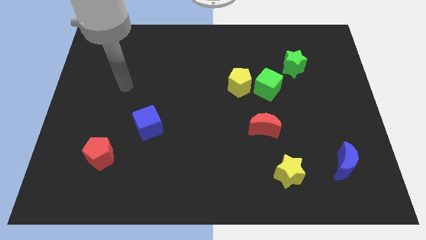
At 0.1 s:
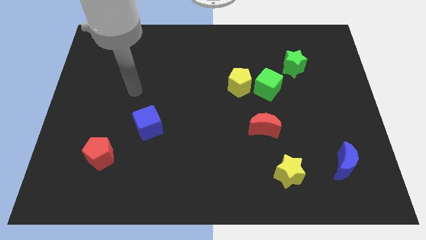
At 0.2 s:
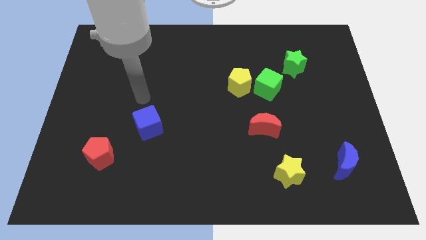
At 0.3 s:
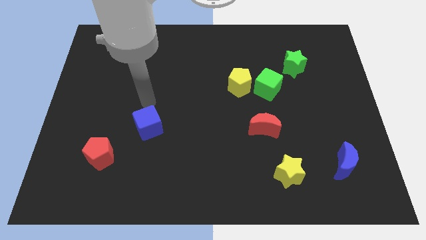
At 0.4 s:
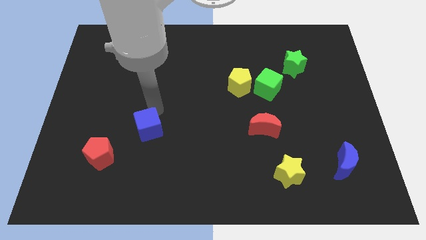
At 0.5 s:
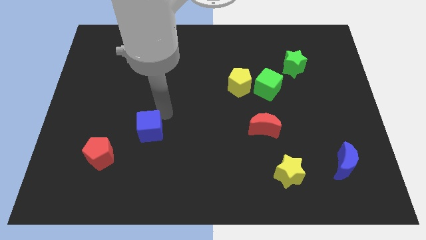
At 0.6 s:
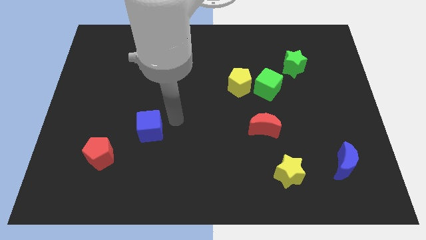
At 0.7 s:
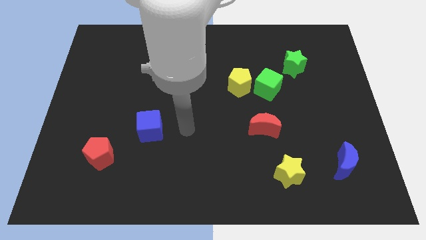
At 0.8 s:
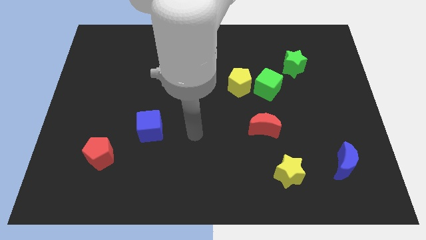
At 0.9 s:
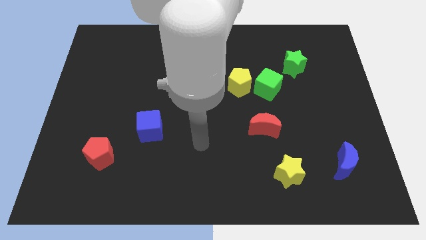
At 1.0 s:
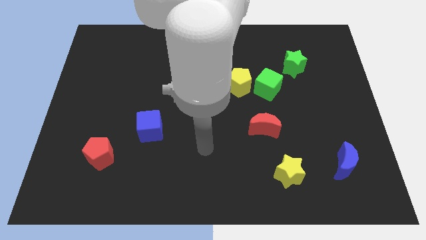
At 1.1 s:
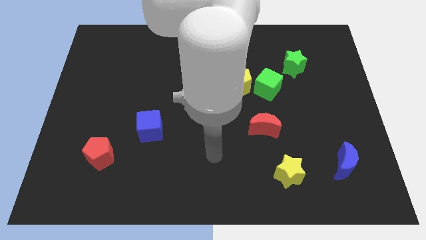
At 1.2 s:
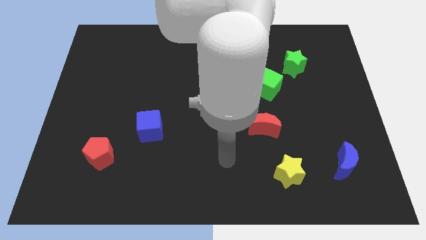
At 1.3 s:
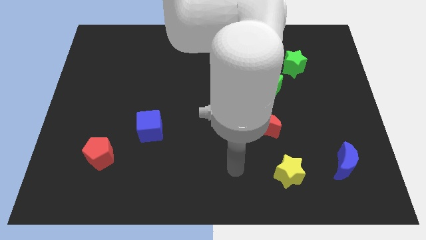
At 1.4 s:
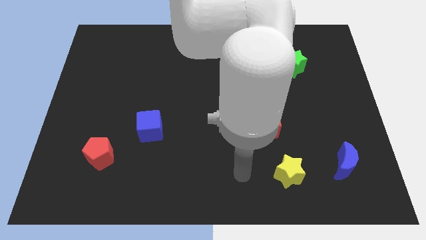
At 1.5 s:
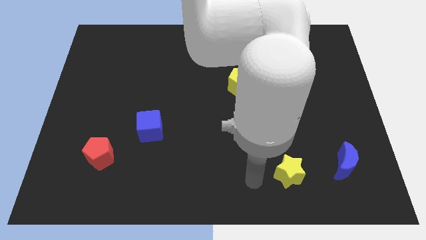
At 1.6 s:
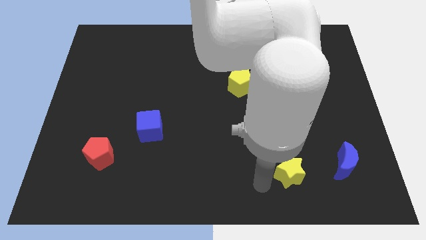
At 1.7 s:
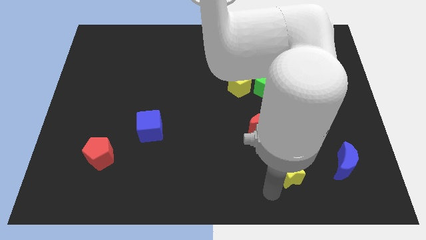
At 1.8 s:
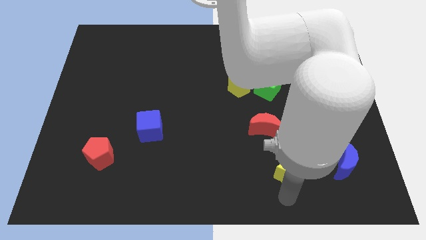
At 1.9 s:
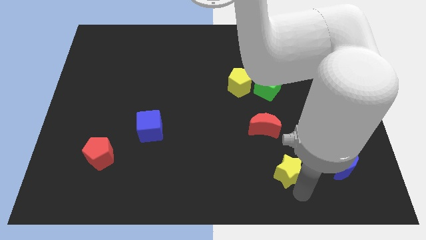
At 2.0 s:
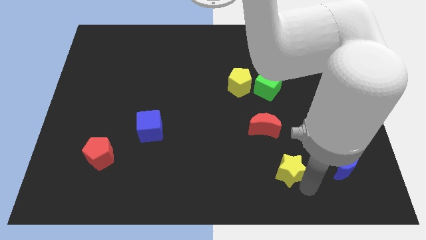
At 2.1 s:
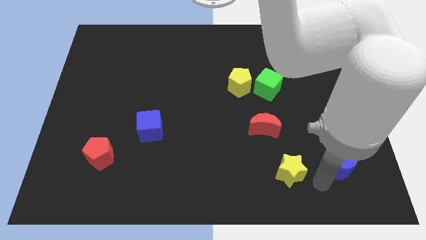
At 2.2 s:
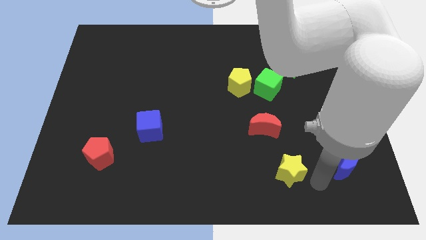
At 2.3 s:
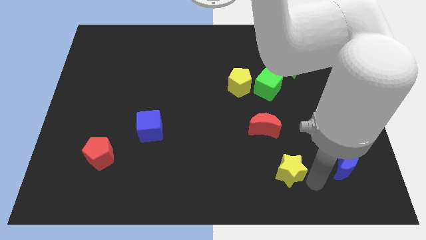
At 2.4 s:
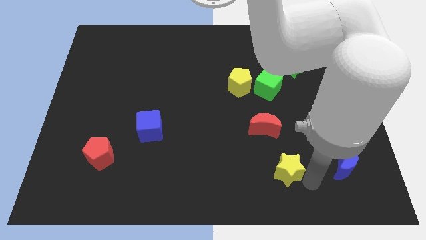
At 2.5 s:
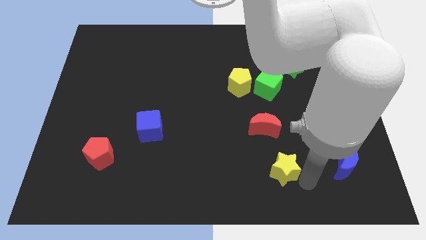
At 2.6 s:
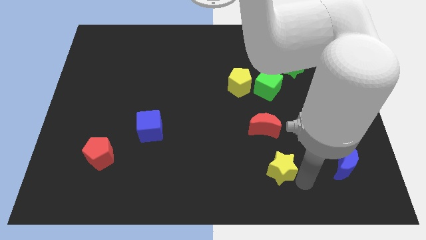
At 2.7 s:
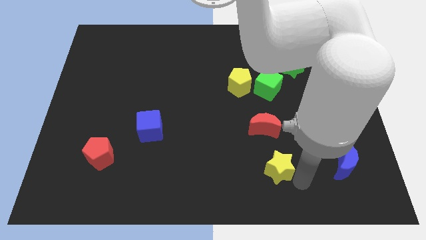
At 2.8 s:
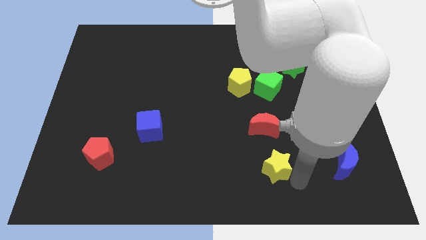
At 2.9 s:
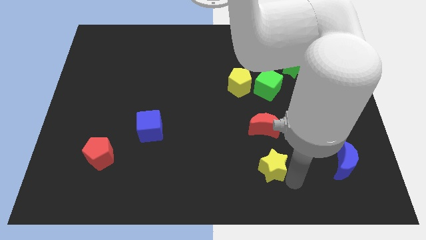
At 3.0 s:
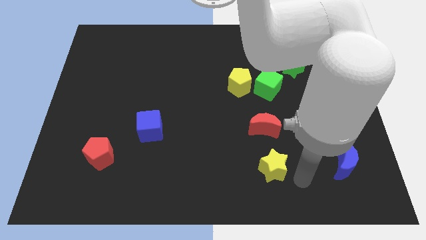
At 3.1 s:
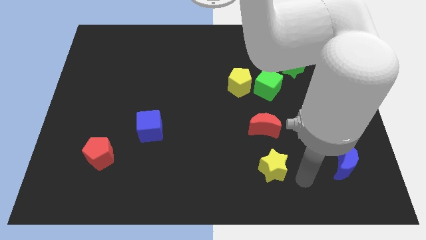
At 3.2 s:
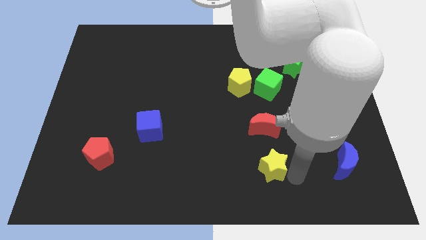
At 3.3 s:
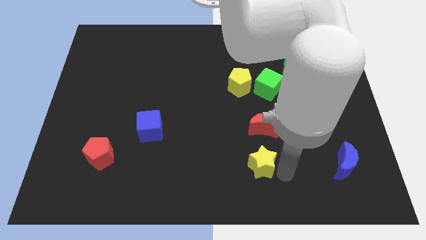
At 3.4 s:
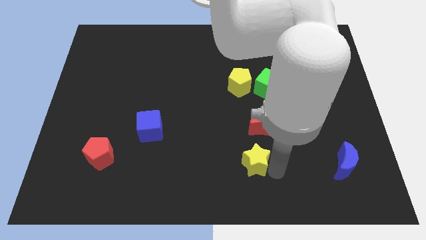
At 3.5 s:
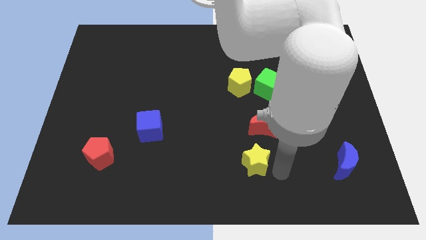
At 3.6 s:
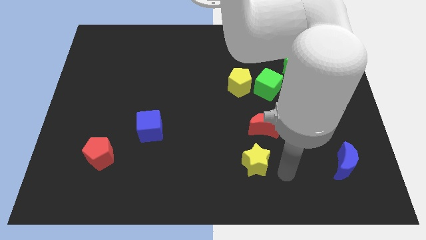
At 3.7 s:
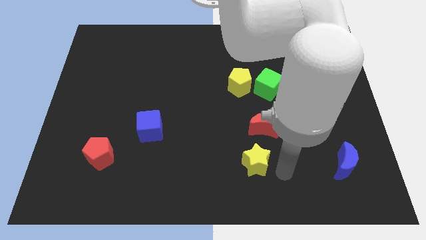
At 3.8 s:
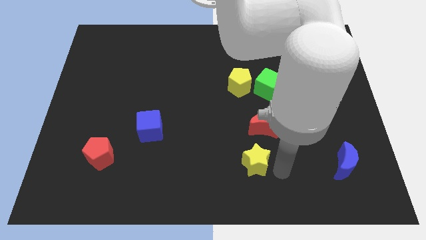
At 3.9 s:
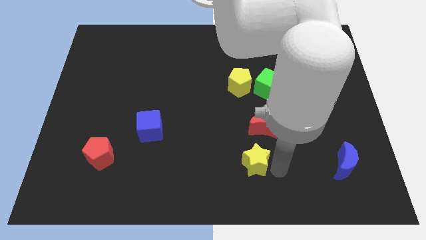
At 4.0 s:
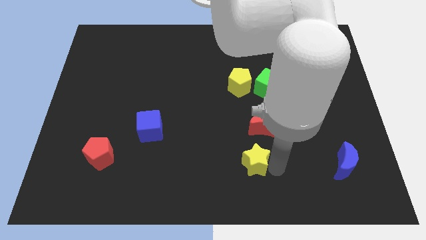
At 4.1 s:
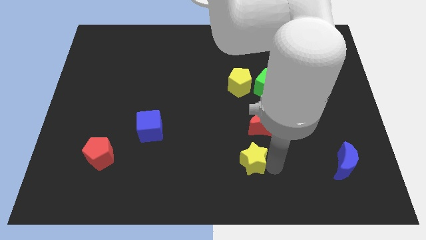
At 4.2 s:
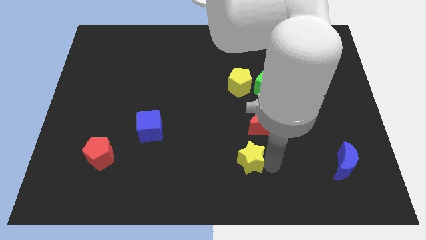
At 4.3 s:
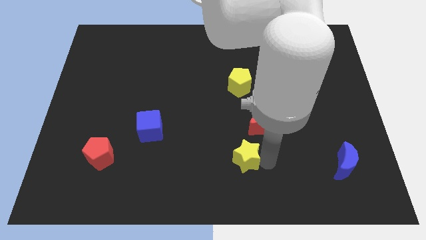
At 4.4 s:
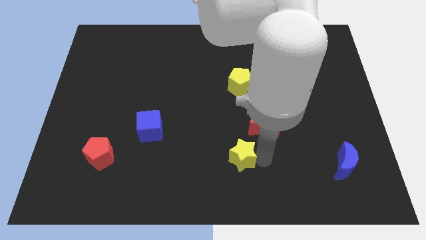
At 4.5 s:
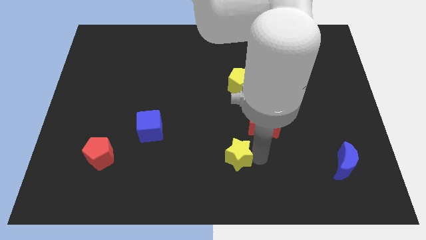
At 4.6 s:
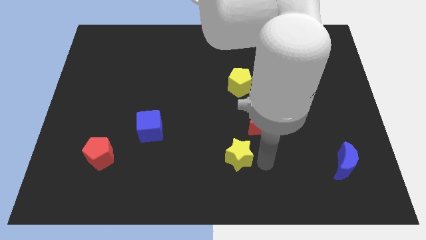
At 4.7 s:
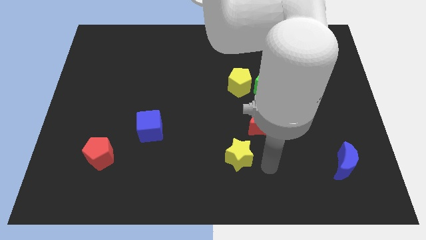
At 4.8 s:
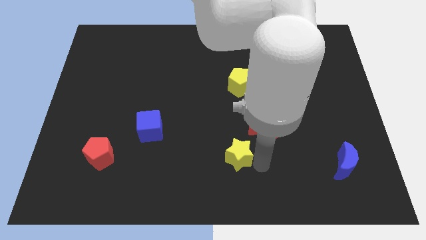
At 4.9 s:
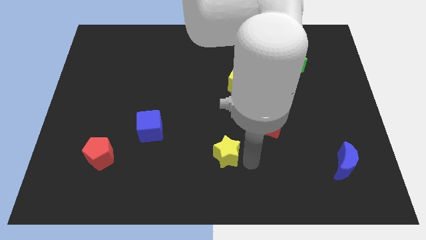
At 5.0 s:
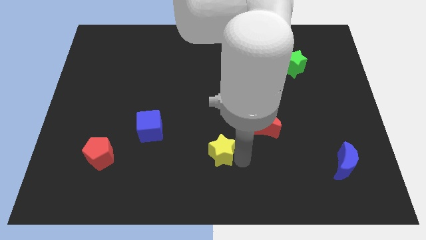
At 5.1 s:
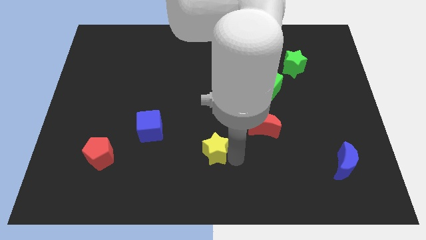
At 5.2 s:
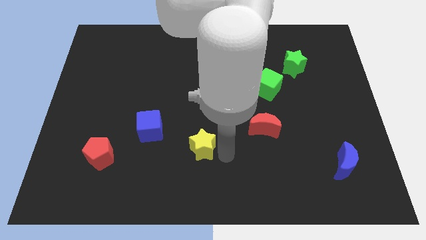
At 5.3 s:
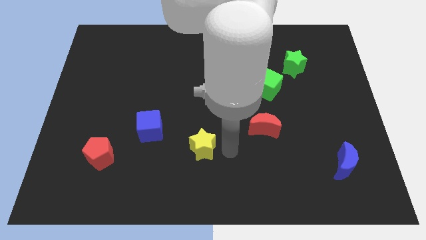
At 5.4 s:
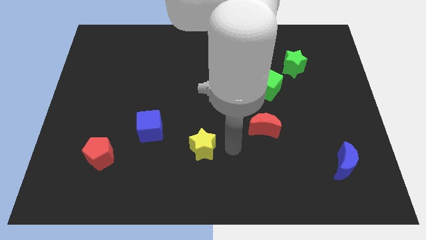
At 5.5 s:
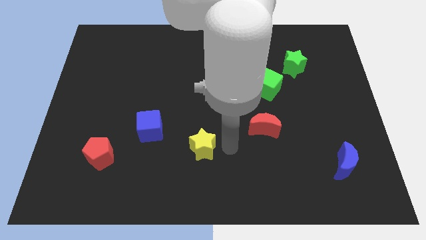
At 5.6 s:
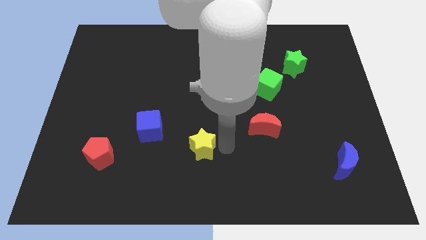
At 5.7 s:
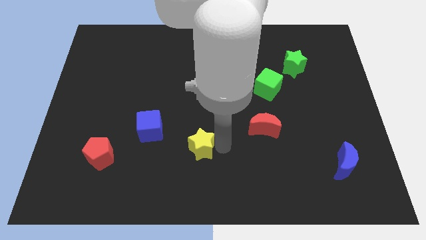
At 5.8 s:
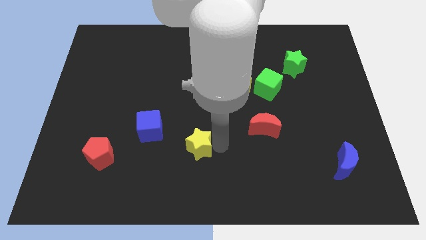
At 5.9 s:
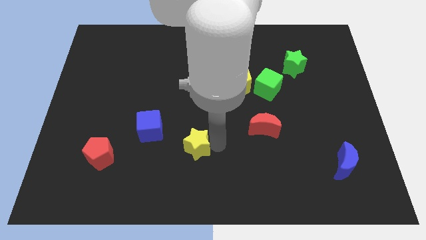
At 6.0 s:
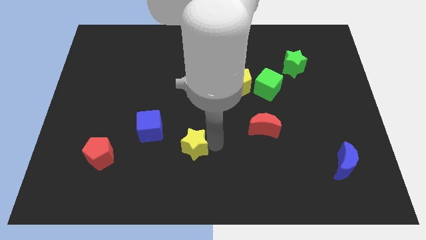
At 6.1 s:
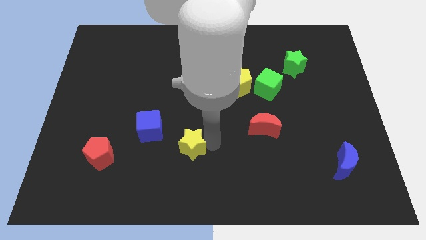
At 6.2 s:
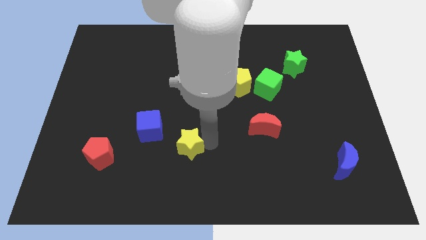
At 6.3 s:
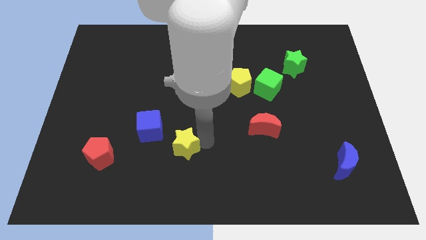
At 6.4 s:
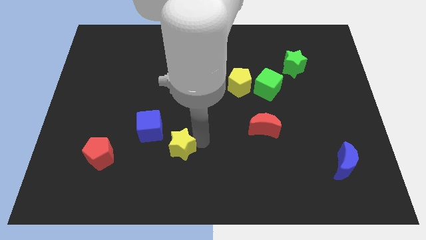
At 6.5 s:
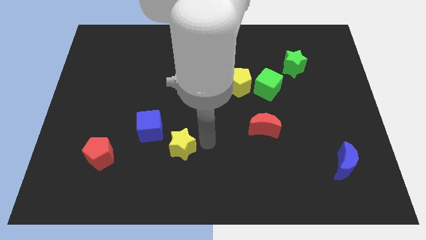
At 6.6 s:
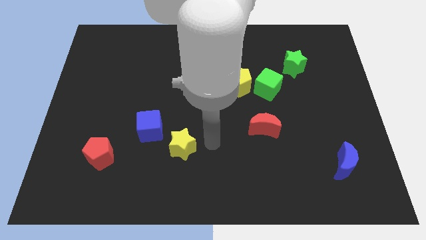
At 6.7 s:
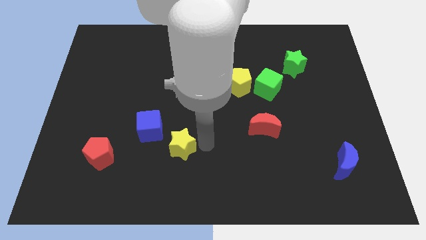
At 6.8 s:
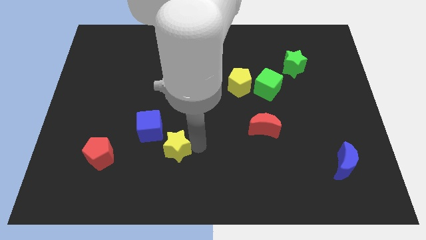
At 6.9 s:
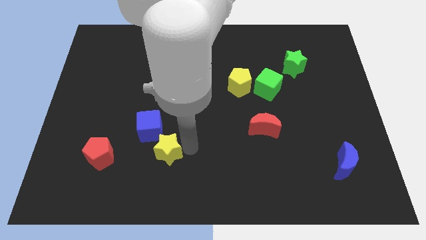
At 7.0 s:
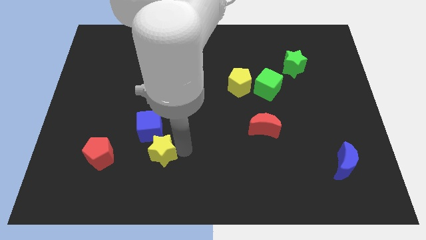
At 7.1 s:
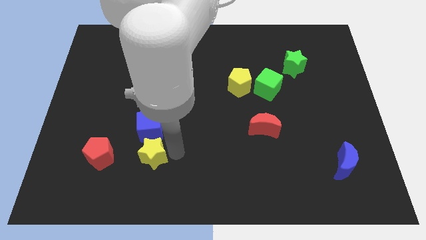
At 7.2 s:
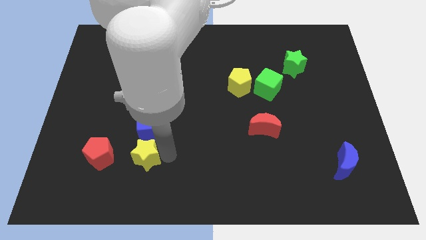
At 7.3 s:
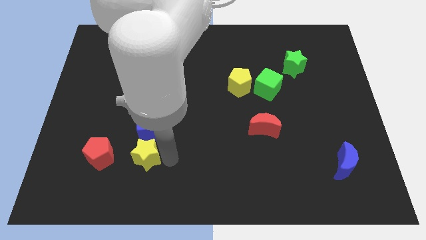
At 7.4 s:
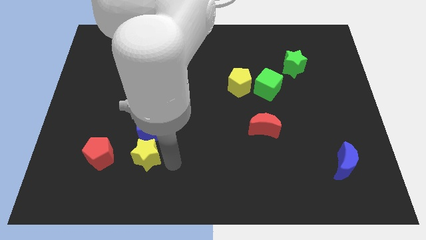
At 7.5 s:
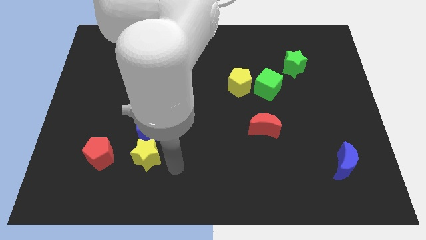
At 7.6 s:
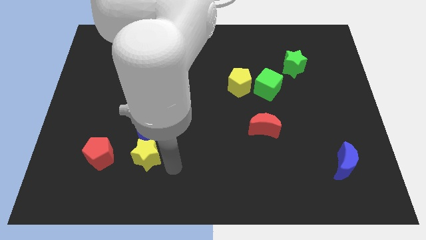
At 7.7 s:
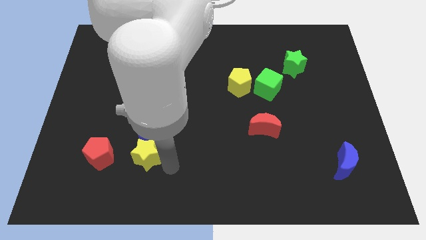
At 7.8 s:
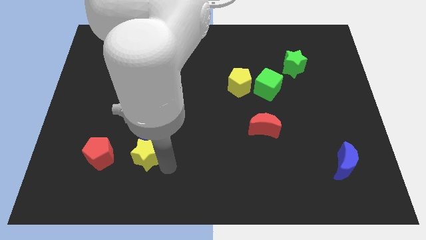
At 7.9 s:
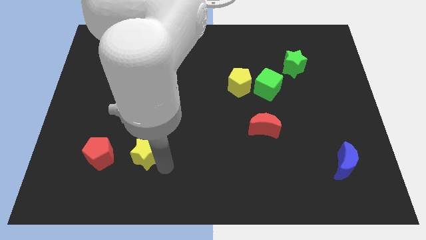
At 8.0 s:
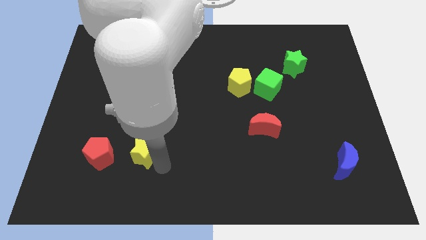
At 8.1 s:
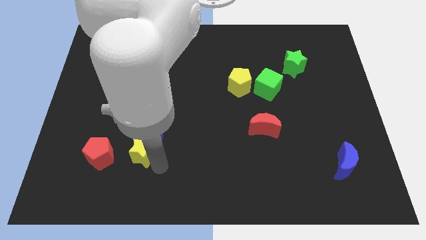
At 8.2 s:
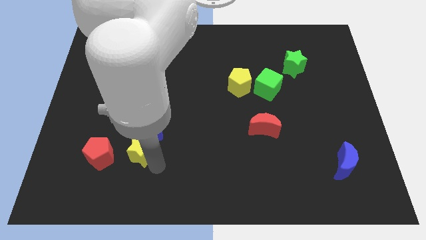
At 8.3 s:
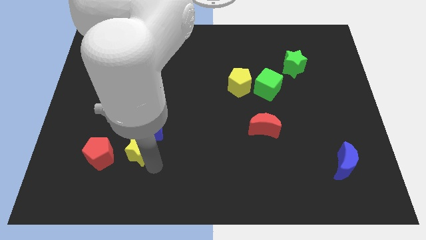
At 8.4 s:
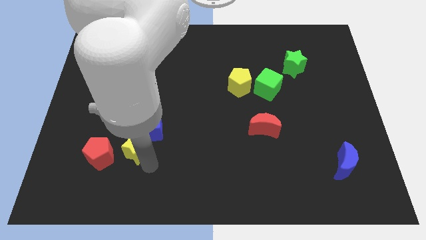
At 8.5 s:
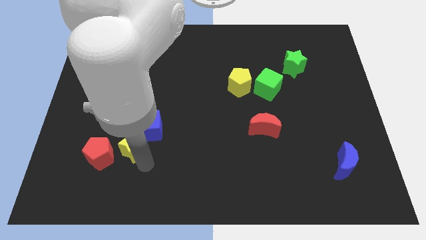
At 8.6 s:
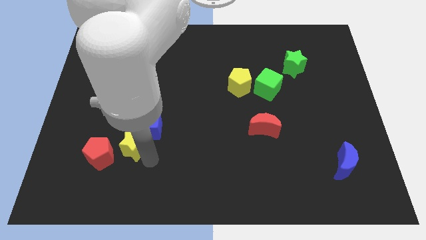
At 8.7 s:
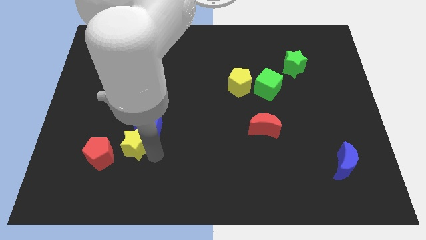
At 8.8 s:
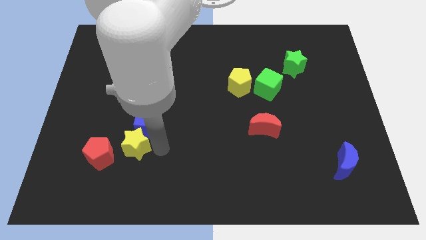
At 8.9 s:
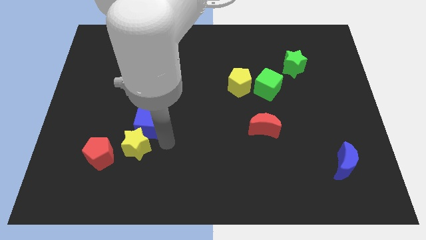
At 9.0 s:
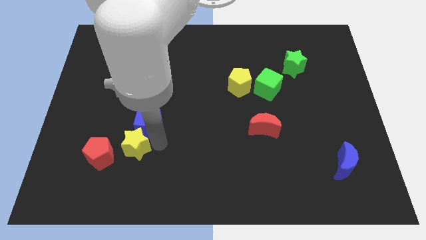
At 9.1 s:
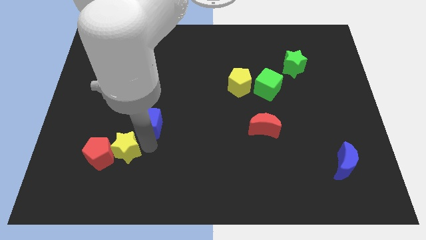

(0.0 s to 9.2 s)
slide the yellow star to the red pentagon
